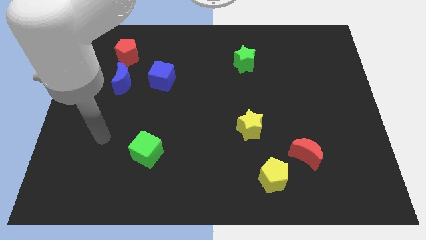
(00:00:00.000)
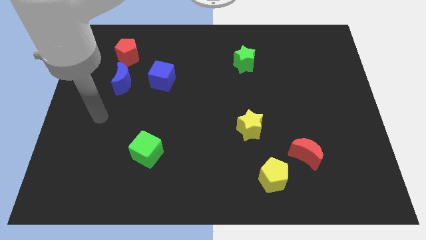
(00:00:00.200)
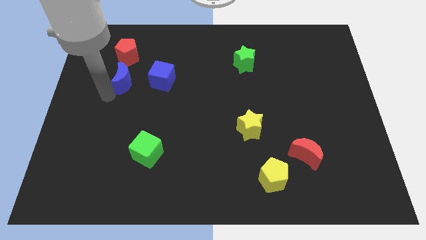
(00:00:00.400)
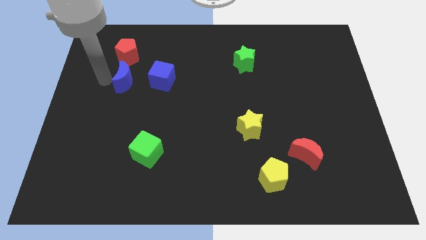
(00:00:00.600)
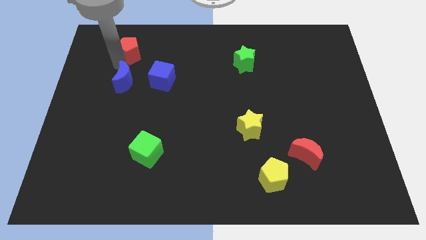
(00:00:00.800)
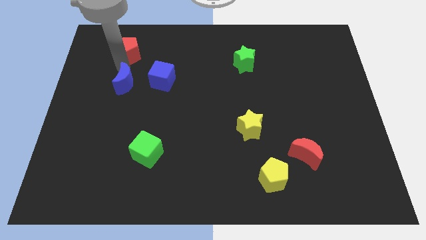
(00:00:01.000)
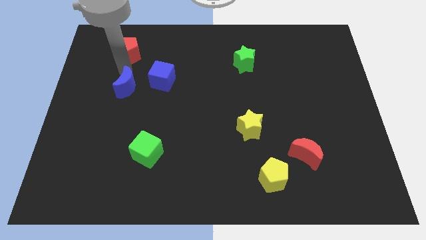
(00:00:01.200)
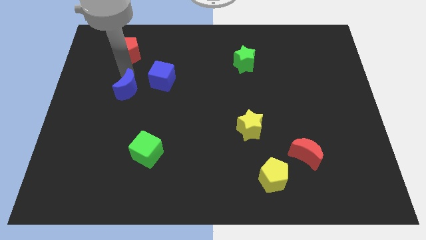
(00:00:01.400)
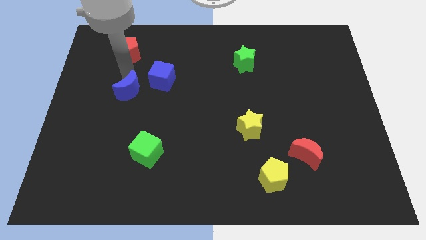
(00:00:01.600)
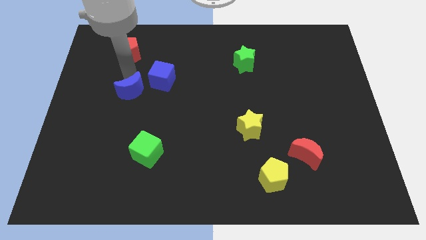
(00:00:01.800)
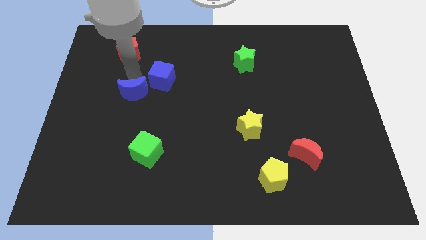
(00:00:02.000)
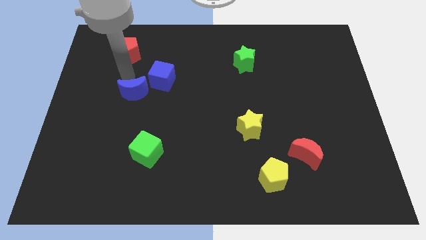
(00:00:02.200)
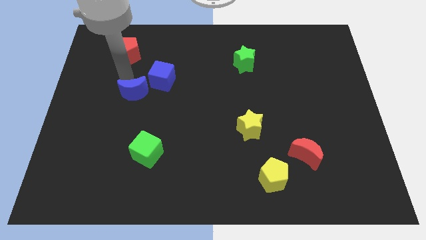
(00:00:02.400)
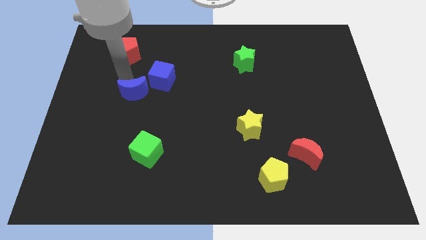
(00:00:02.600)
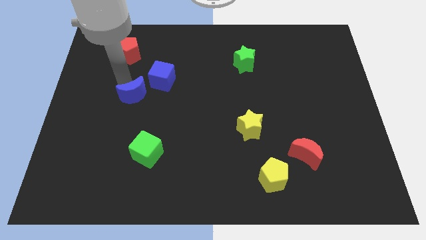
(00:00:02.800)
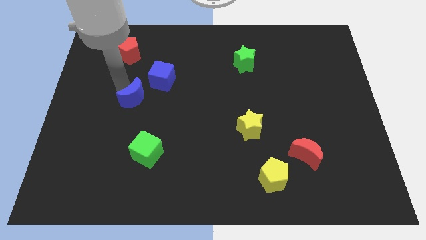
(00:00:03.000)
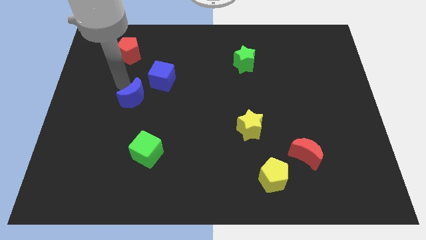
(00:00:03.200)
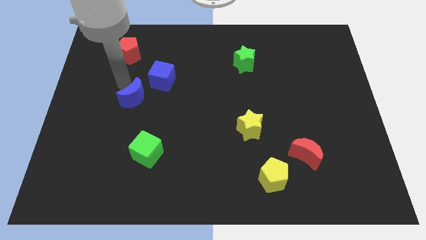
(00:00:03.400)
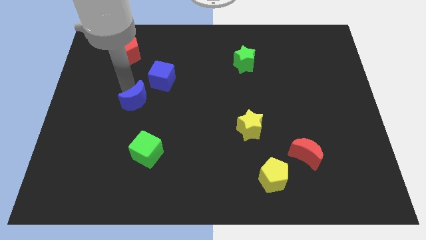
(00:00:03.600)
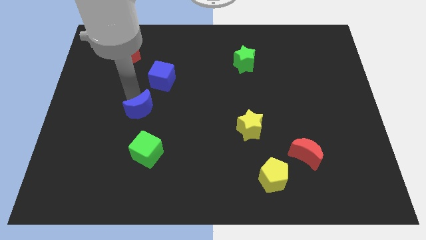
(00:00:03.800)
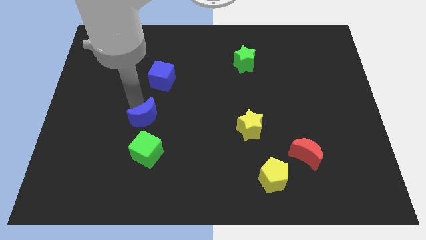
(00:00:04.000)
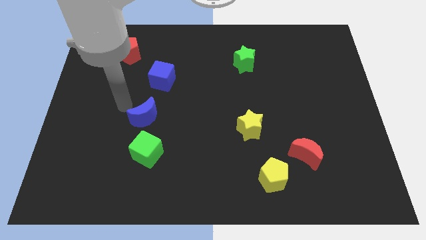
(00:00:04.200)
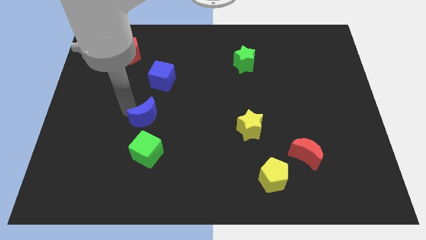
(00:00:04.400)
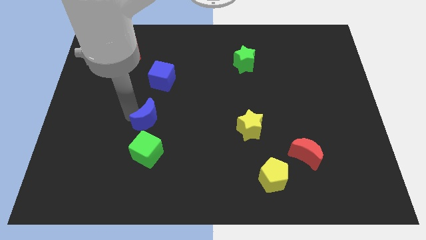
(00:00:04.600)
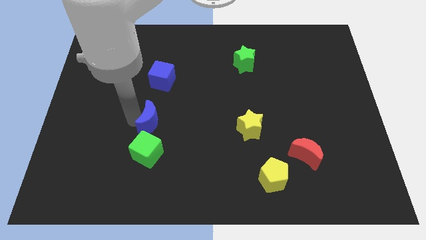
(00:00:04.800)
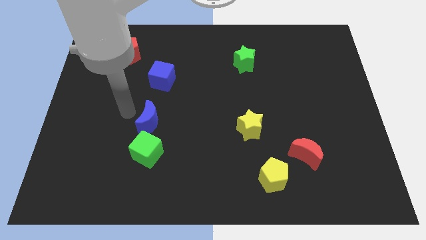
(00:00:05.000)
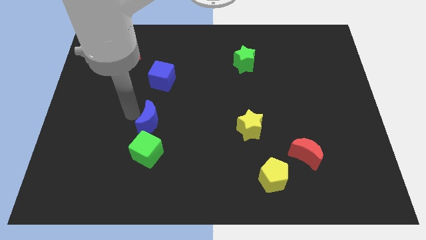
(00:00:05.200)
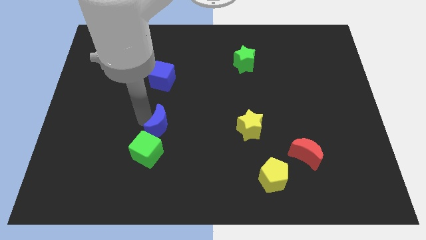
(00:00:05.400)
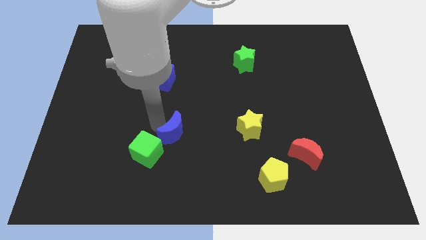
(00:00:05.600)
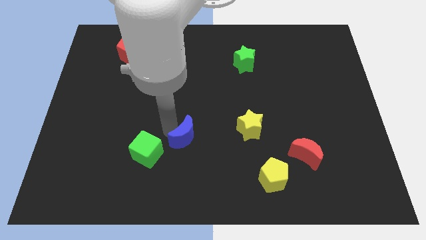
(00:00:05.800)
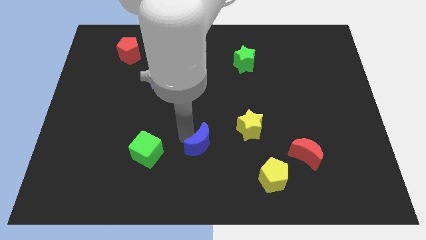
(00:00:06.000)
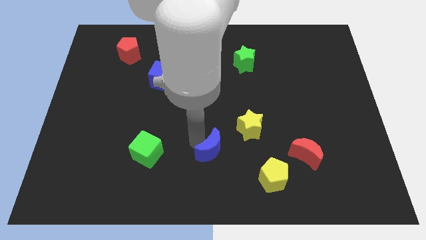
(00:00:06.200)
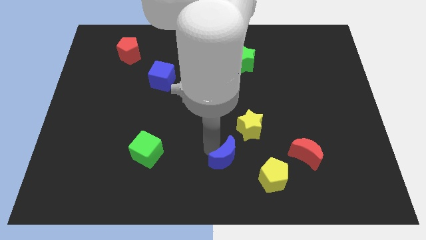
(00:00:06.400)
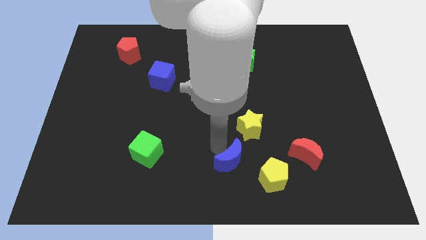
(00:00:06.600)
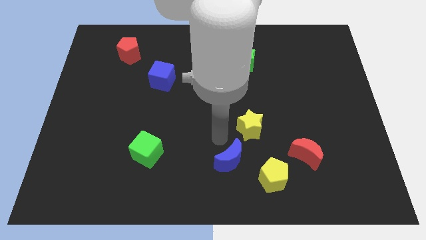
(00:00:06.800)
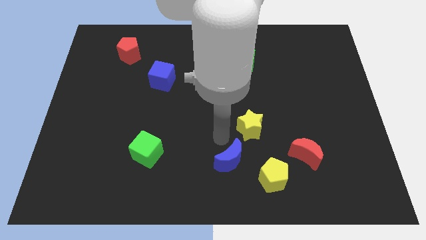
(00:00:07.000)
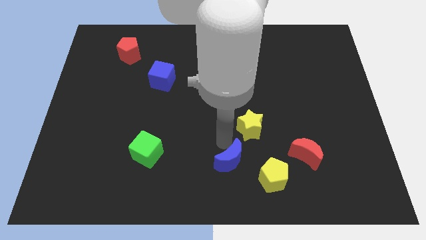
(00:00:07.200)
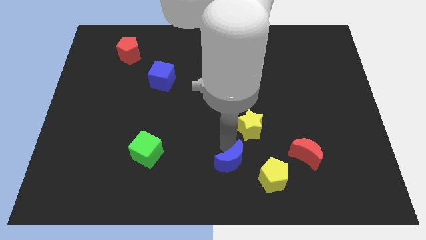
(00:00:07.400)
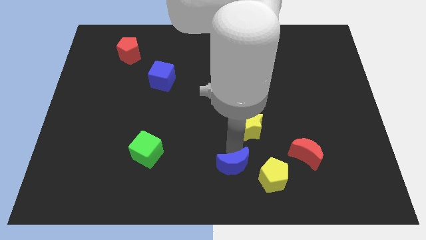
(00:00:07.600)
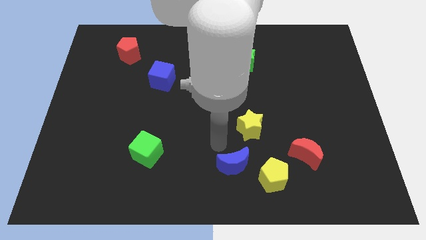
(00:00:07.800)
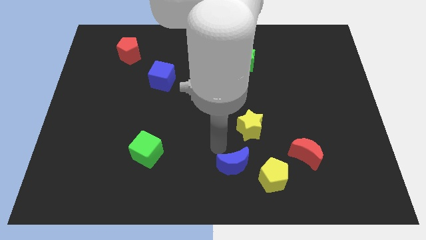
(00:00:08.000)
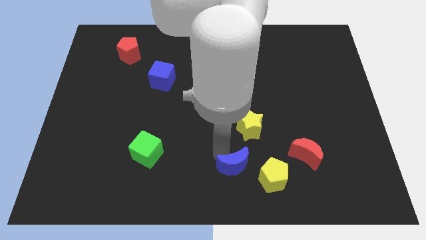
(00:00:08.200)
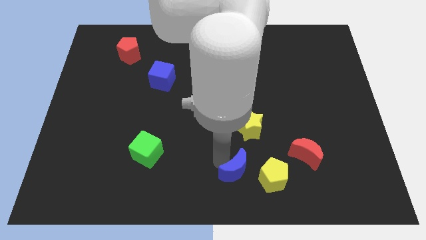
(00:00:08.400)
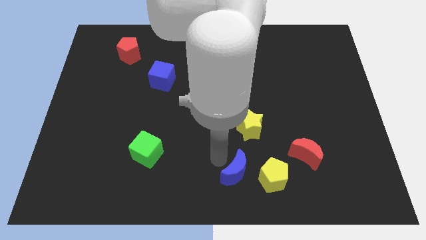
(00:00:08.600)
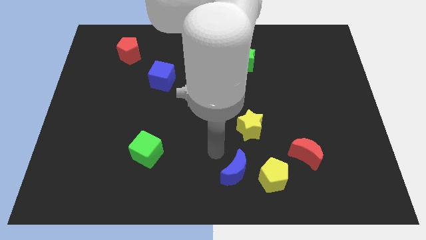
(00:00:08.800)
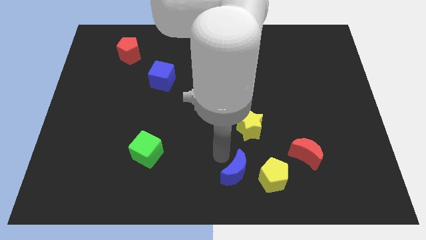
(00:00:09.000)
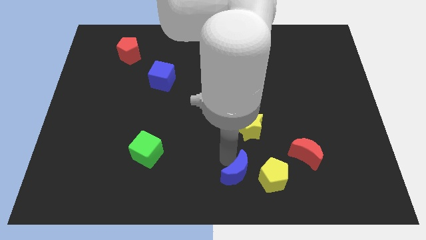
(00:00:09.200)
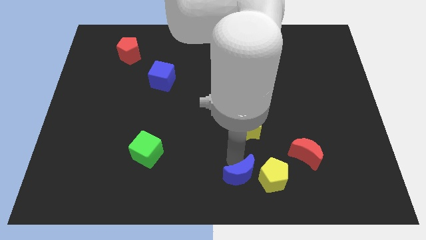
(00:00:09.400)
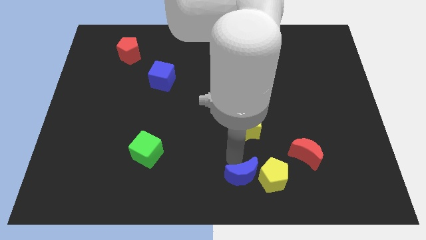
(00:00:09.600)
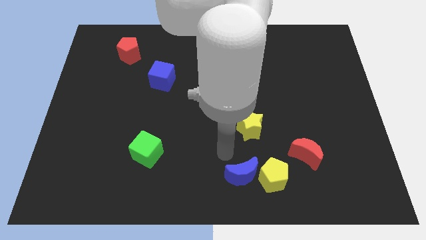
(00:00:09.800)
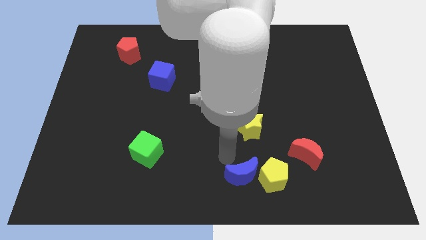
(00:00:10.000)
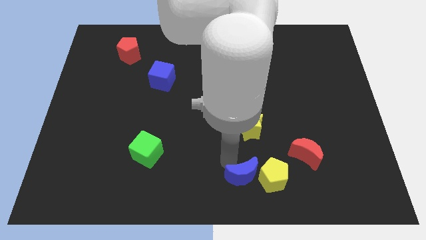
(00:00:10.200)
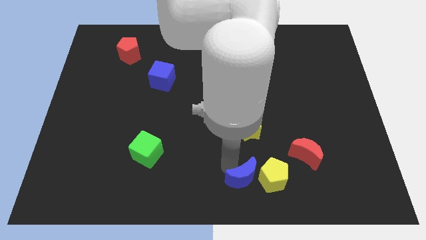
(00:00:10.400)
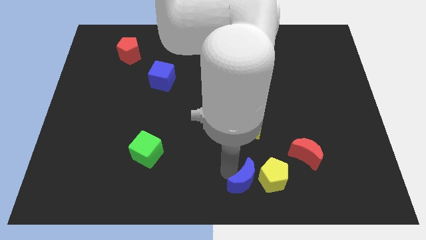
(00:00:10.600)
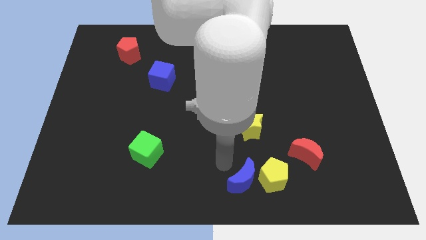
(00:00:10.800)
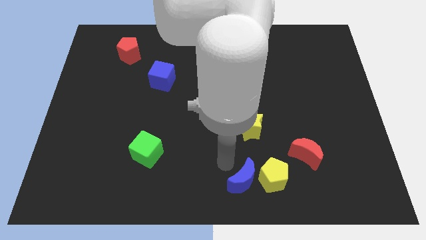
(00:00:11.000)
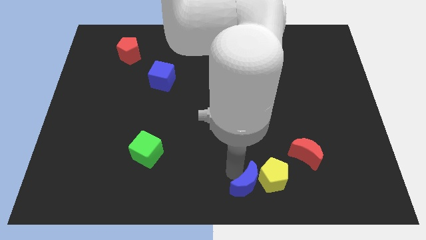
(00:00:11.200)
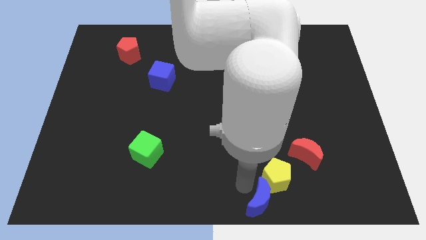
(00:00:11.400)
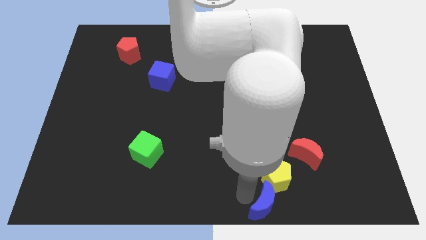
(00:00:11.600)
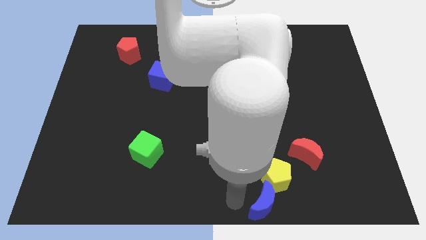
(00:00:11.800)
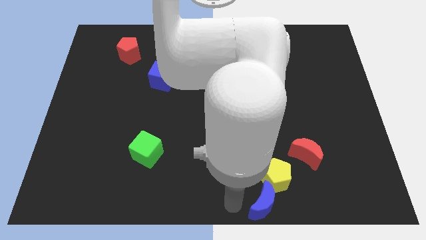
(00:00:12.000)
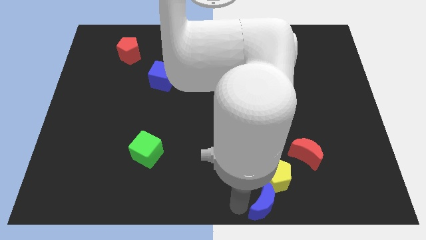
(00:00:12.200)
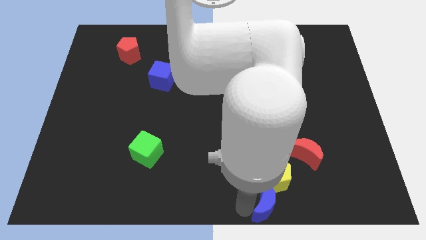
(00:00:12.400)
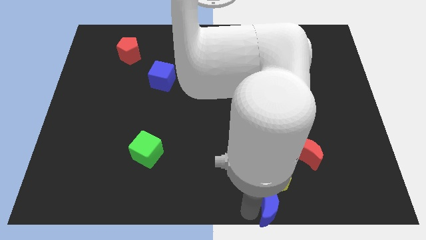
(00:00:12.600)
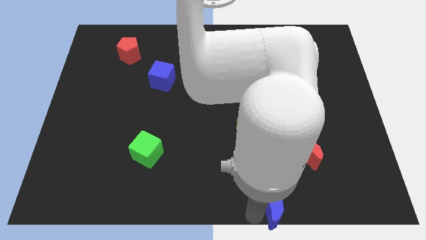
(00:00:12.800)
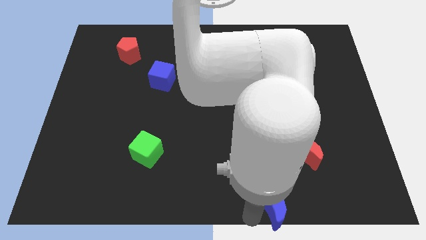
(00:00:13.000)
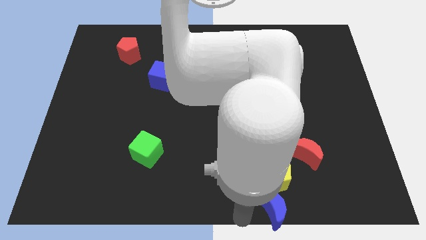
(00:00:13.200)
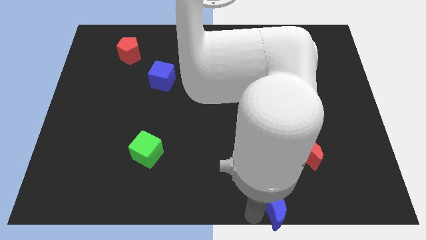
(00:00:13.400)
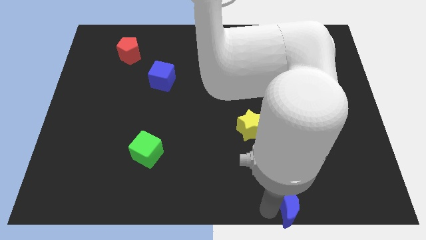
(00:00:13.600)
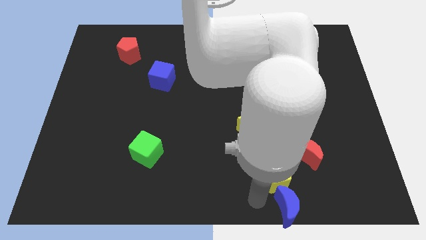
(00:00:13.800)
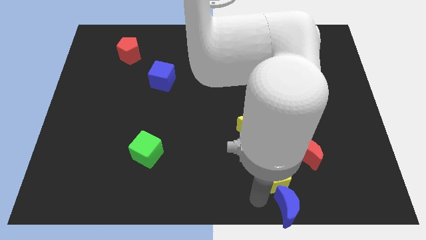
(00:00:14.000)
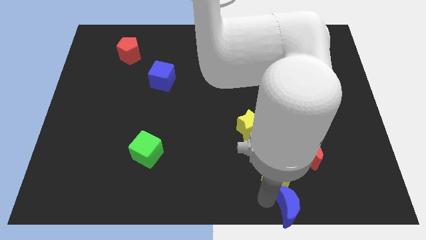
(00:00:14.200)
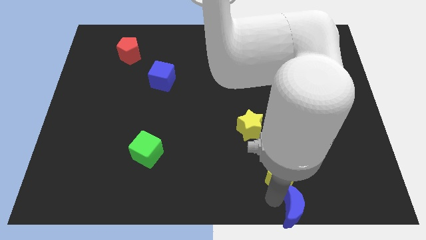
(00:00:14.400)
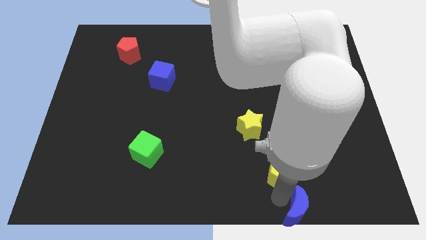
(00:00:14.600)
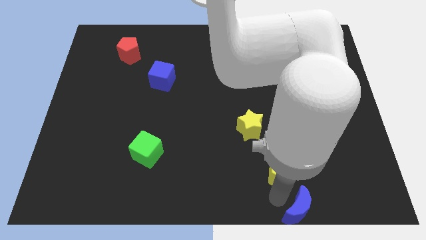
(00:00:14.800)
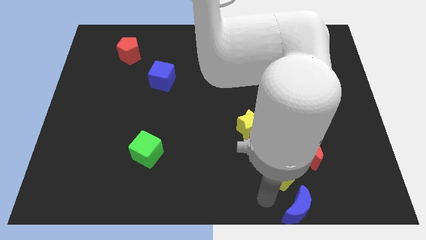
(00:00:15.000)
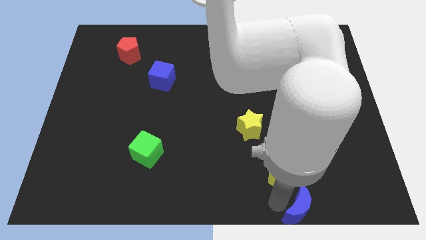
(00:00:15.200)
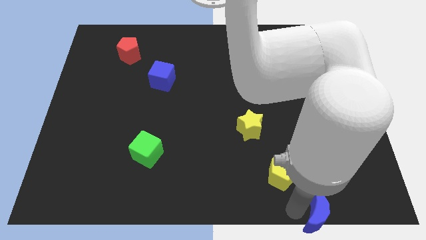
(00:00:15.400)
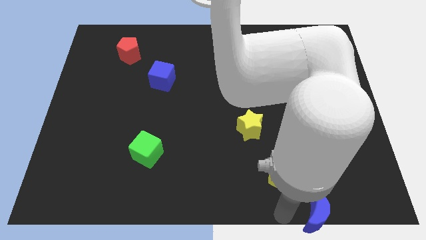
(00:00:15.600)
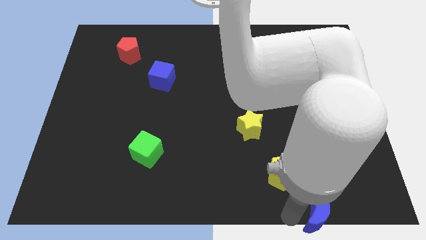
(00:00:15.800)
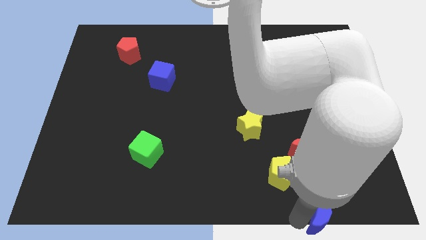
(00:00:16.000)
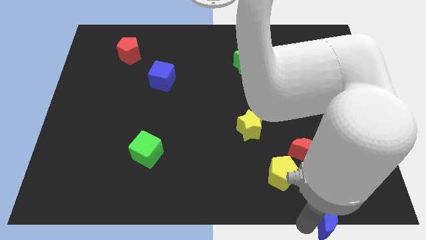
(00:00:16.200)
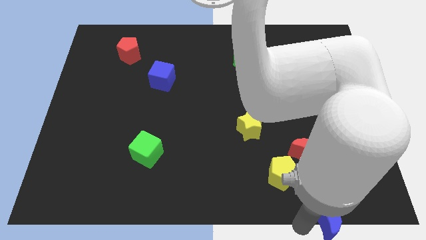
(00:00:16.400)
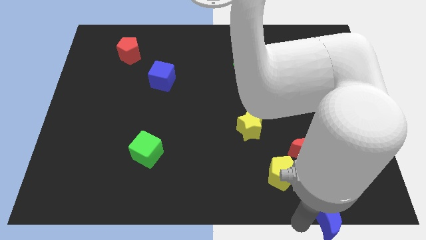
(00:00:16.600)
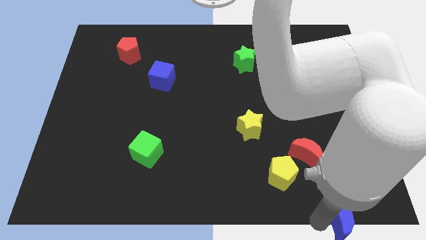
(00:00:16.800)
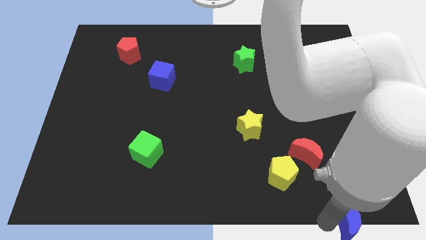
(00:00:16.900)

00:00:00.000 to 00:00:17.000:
move the blue moon to the bottom right
